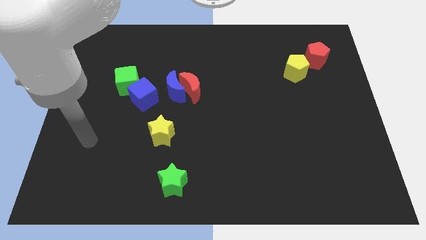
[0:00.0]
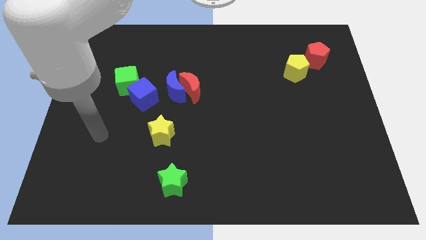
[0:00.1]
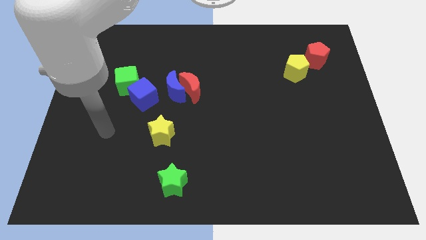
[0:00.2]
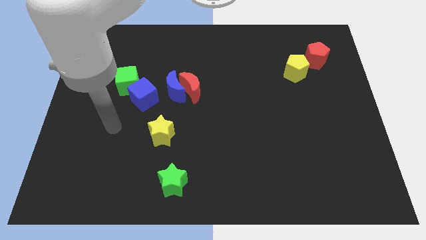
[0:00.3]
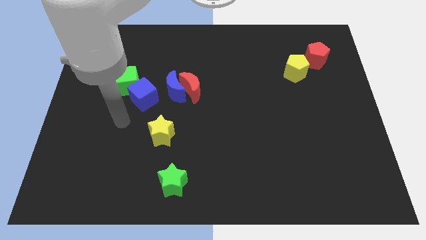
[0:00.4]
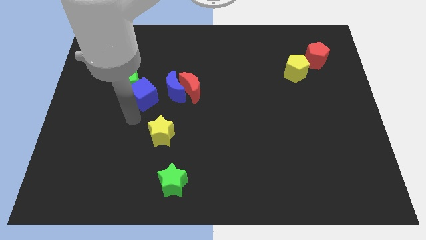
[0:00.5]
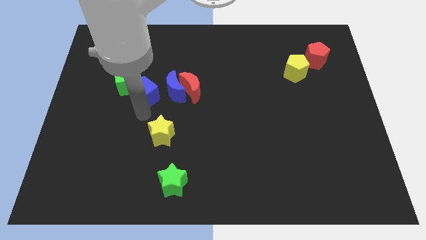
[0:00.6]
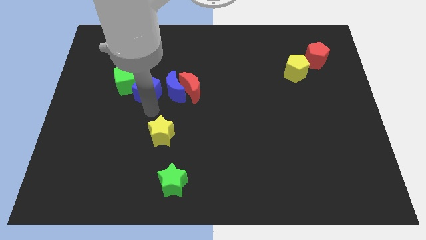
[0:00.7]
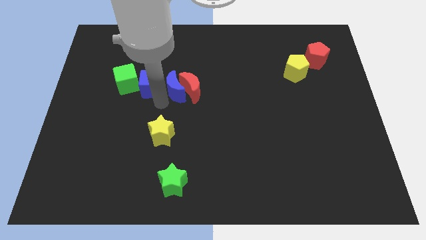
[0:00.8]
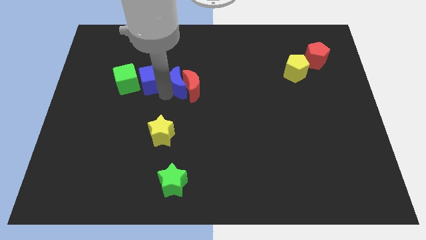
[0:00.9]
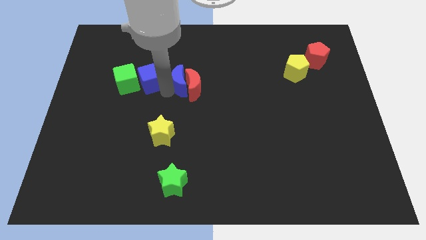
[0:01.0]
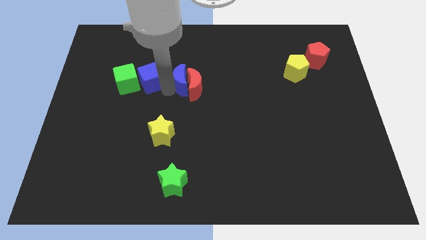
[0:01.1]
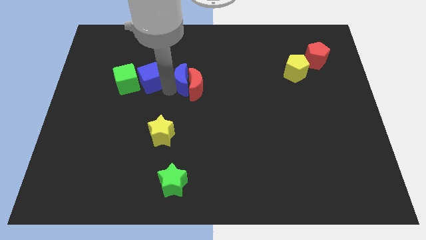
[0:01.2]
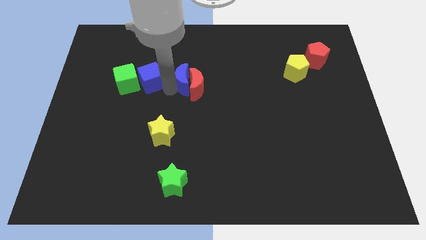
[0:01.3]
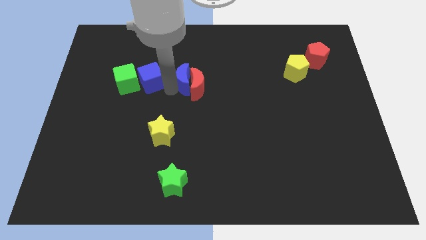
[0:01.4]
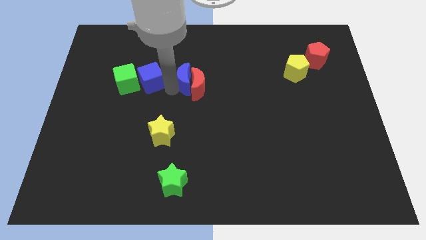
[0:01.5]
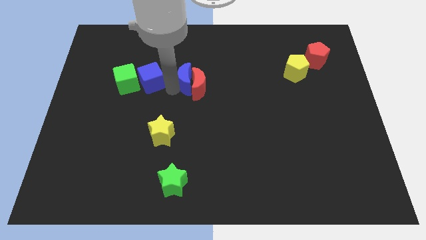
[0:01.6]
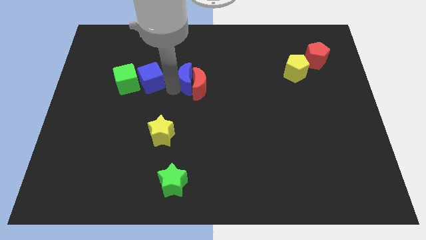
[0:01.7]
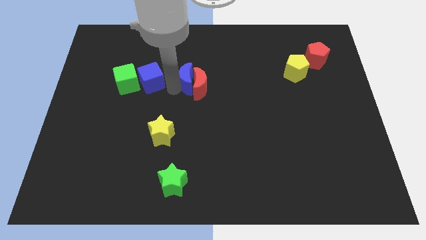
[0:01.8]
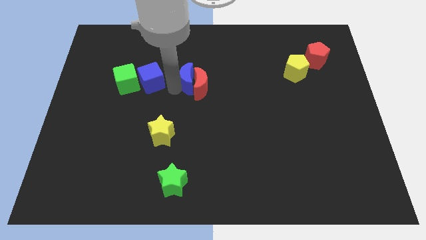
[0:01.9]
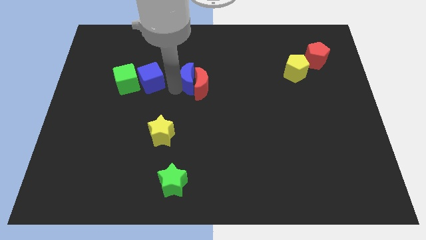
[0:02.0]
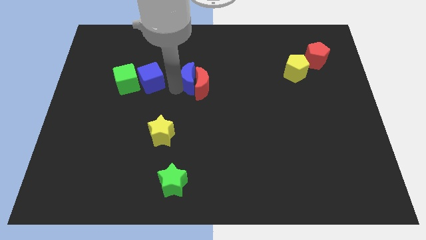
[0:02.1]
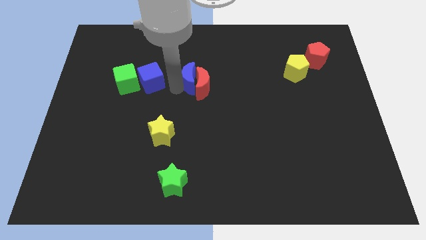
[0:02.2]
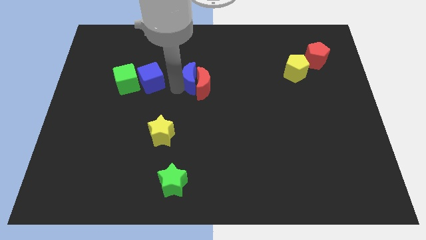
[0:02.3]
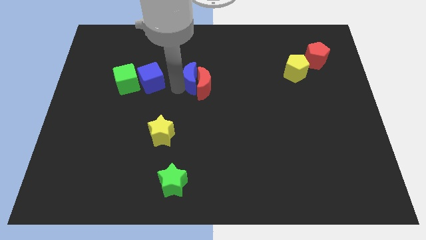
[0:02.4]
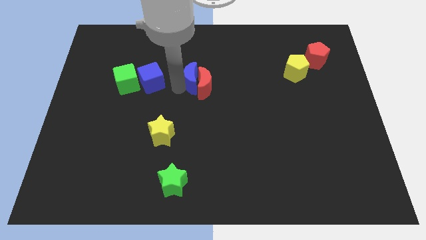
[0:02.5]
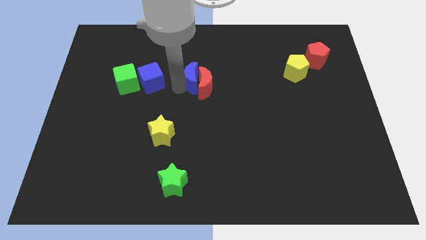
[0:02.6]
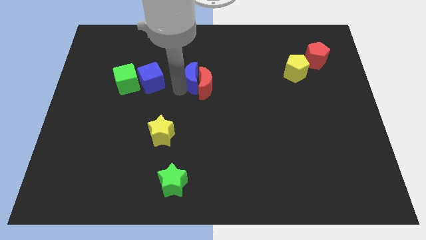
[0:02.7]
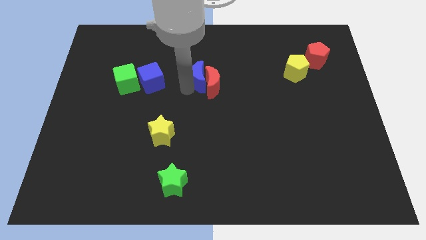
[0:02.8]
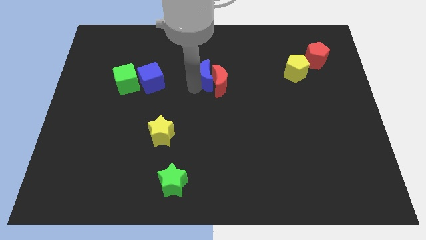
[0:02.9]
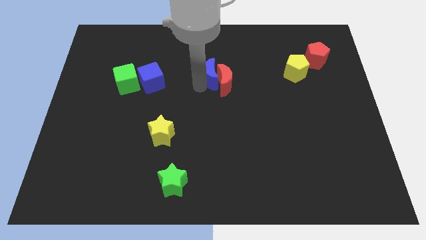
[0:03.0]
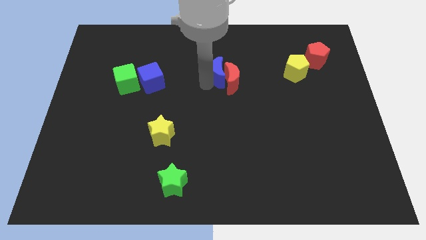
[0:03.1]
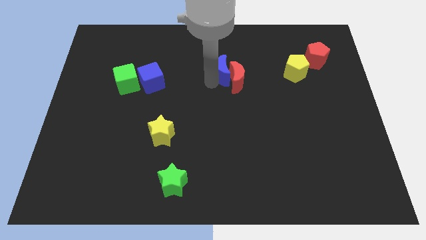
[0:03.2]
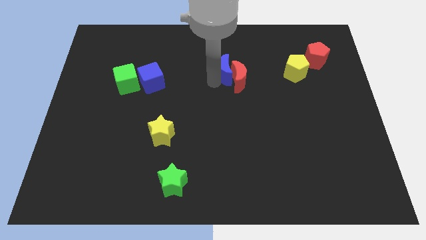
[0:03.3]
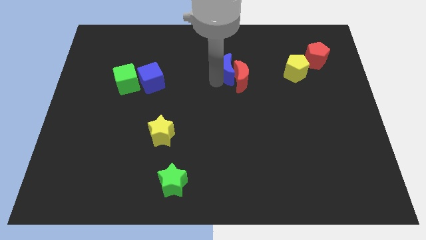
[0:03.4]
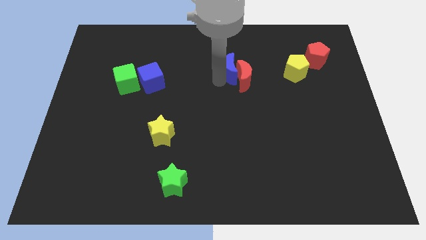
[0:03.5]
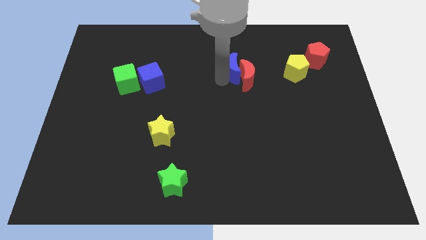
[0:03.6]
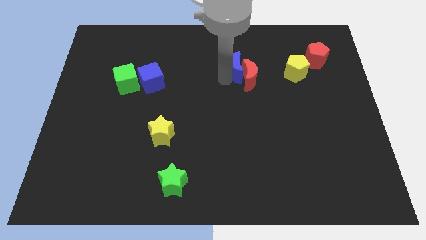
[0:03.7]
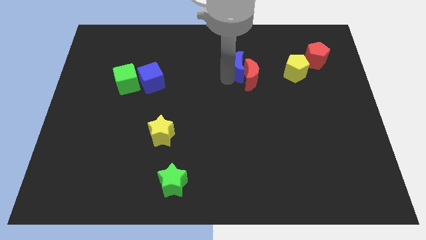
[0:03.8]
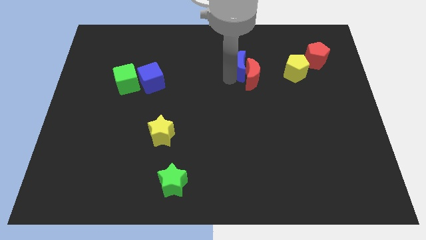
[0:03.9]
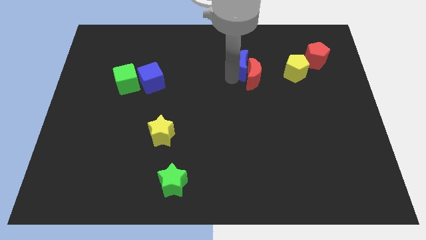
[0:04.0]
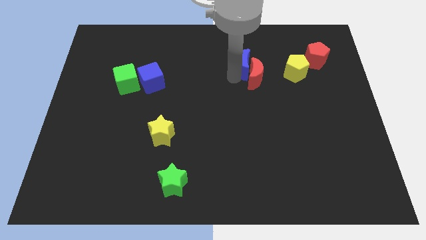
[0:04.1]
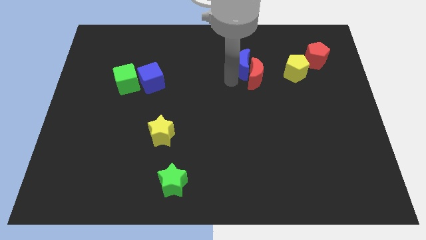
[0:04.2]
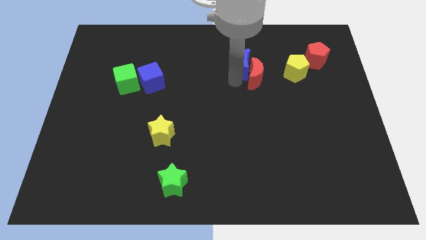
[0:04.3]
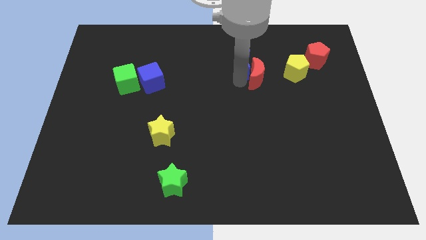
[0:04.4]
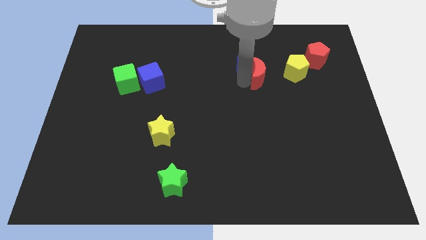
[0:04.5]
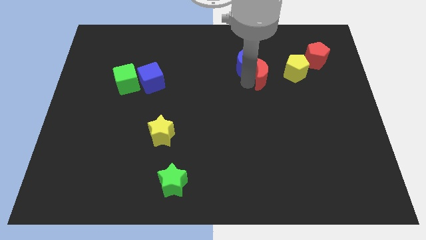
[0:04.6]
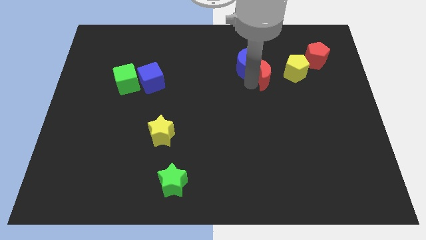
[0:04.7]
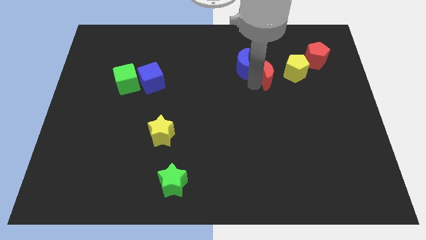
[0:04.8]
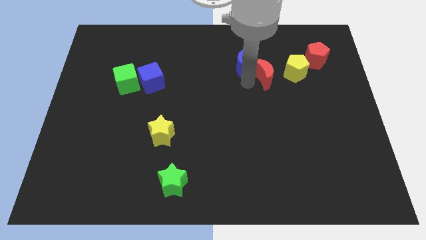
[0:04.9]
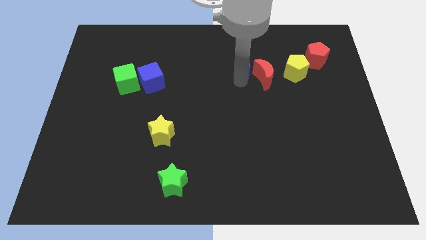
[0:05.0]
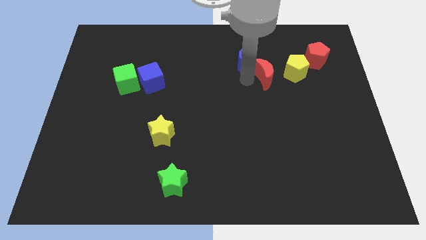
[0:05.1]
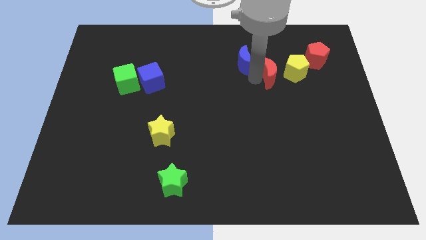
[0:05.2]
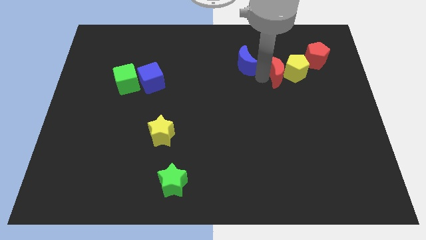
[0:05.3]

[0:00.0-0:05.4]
move the red moon next to the yellow pentagon

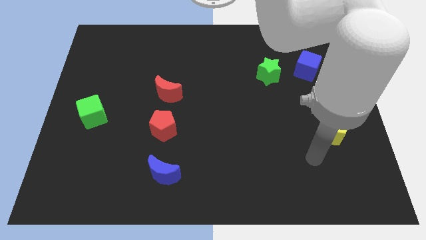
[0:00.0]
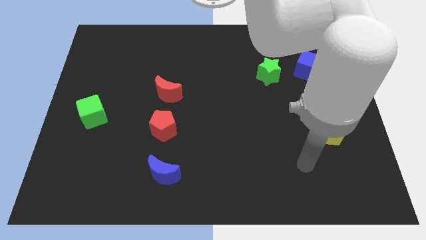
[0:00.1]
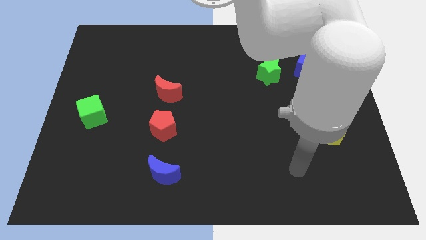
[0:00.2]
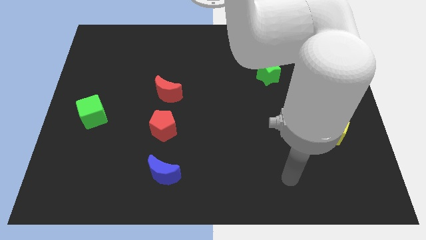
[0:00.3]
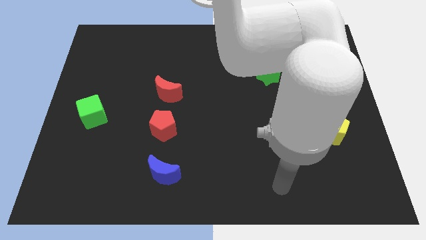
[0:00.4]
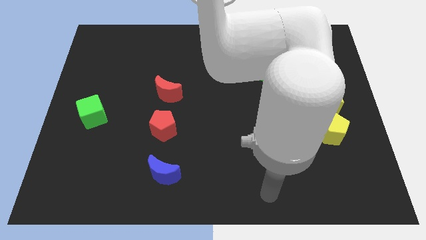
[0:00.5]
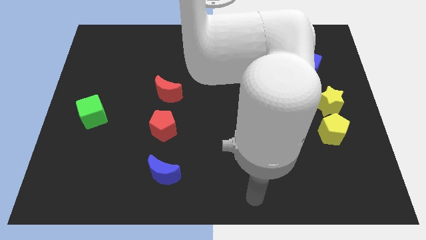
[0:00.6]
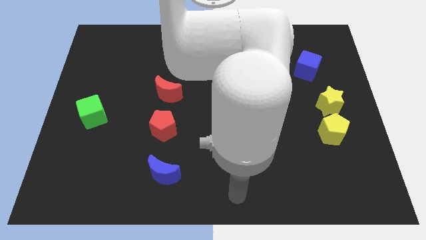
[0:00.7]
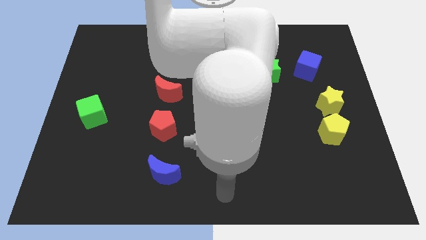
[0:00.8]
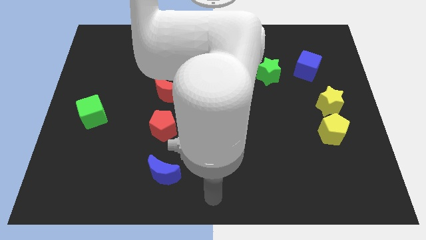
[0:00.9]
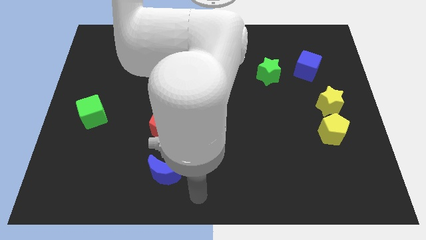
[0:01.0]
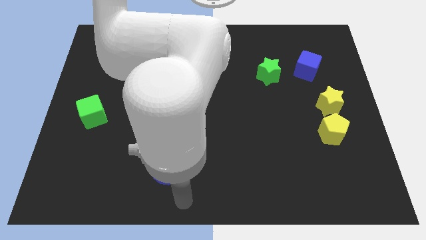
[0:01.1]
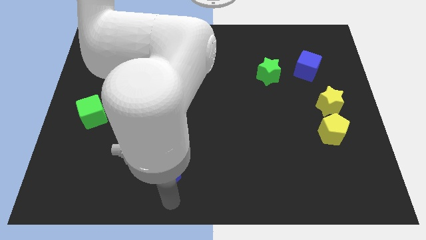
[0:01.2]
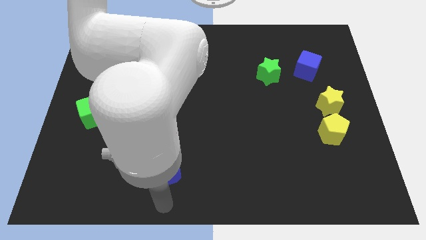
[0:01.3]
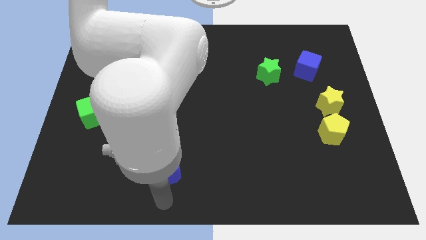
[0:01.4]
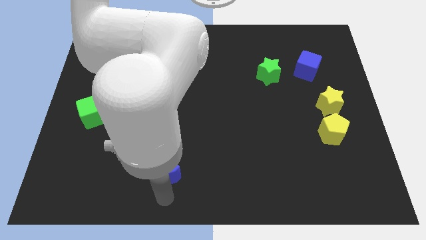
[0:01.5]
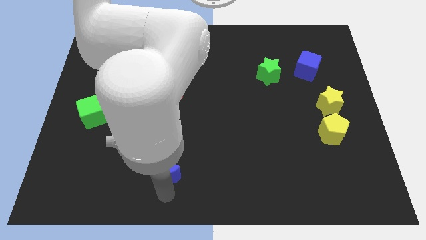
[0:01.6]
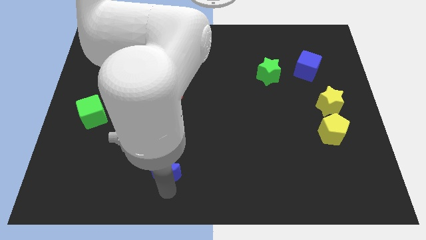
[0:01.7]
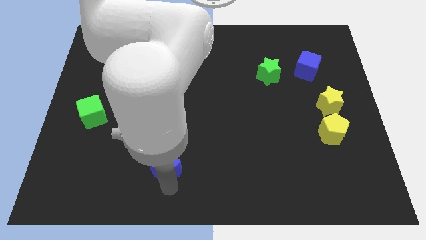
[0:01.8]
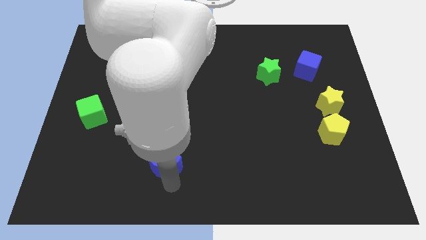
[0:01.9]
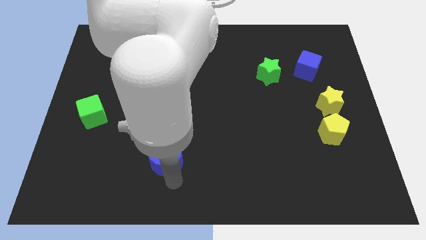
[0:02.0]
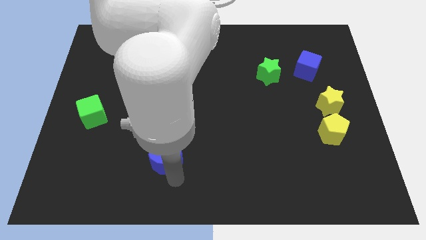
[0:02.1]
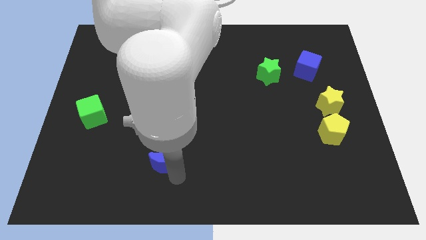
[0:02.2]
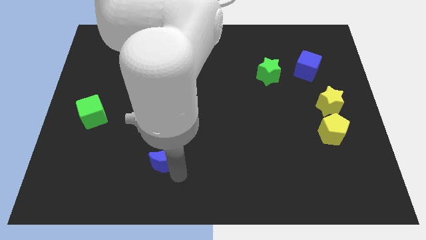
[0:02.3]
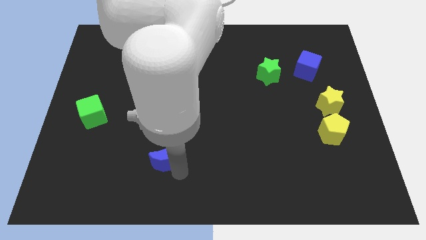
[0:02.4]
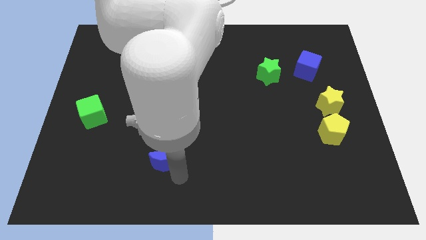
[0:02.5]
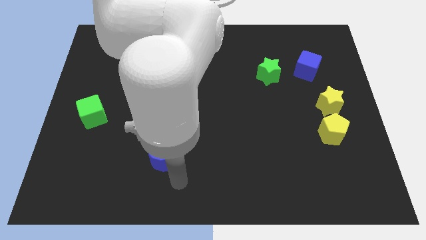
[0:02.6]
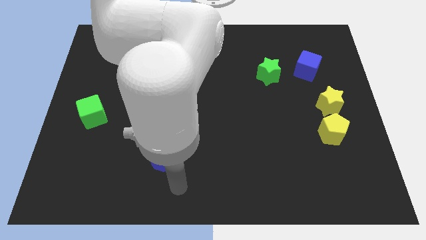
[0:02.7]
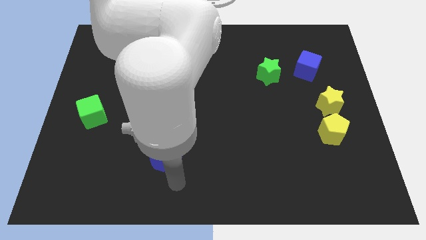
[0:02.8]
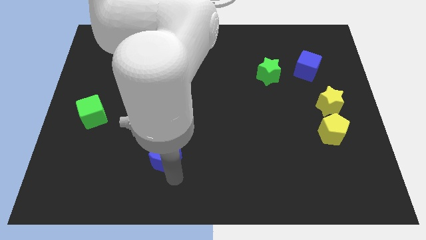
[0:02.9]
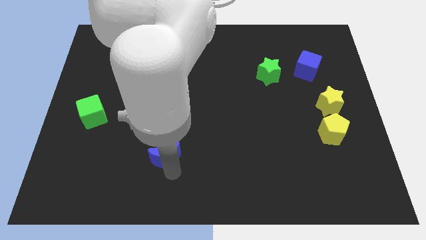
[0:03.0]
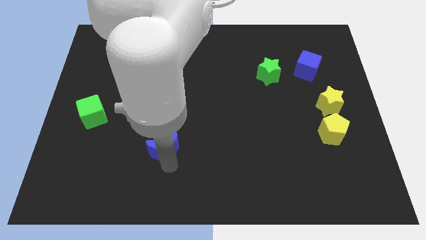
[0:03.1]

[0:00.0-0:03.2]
push the blue moon towards the red pentagon
